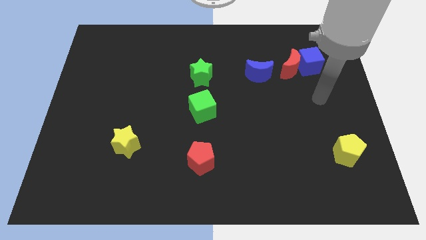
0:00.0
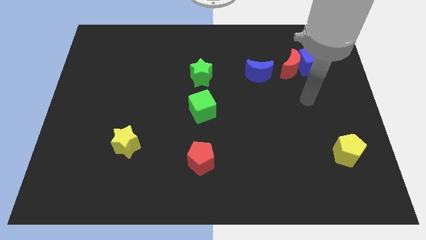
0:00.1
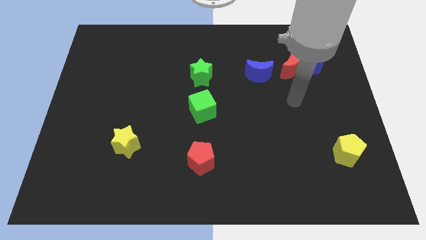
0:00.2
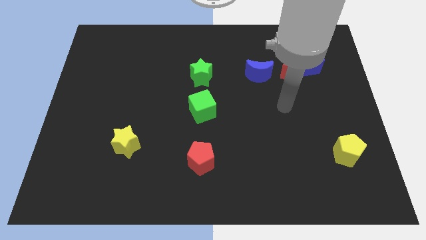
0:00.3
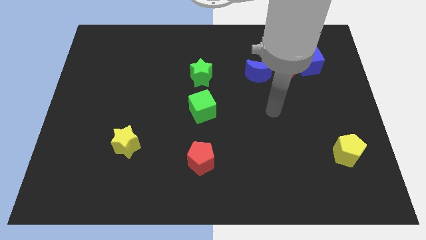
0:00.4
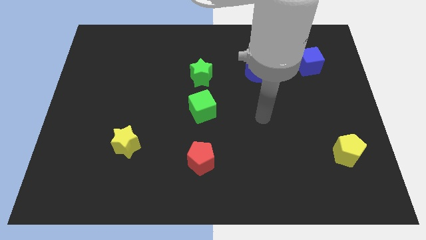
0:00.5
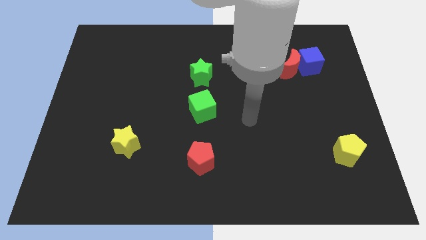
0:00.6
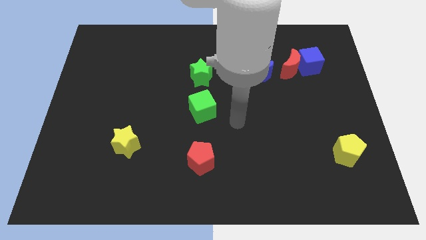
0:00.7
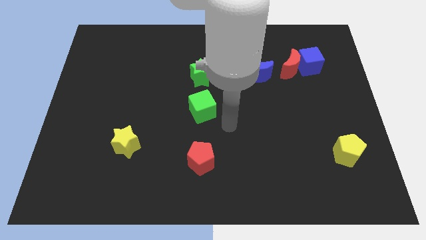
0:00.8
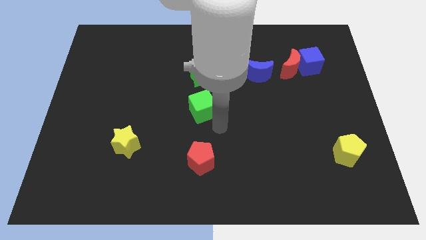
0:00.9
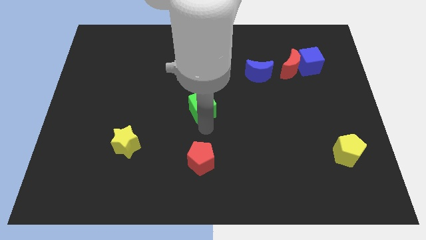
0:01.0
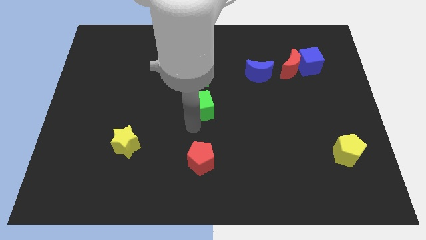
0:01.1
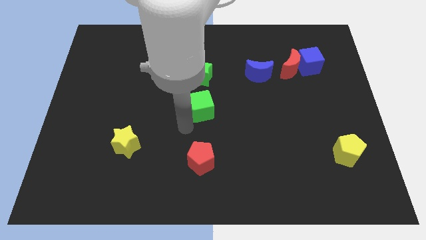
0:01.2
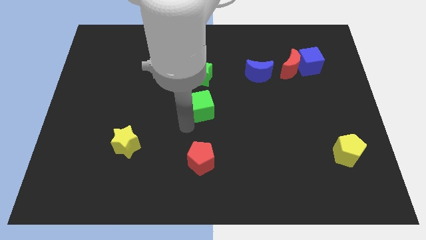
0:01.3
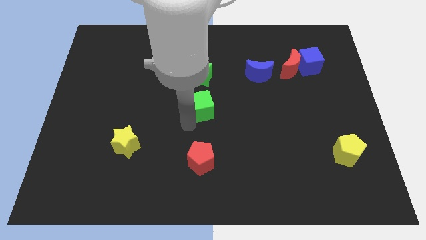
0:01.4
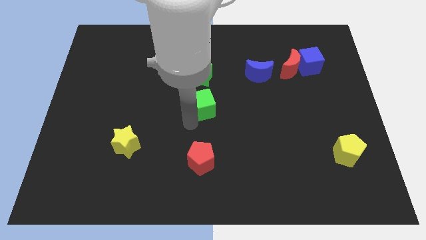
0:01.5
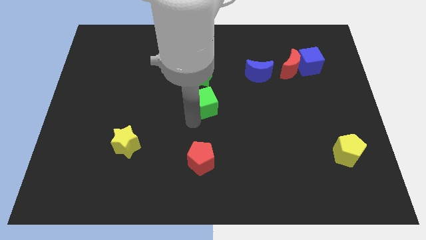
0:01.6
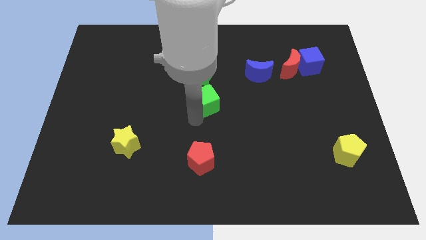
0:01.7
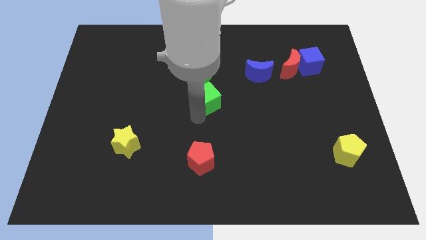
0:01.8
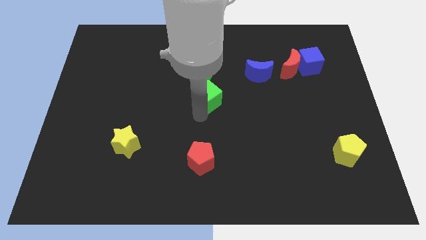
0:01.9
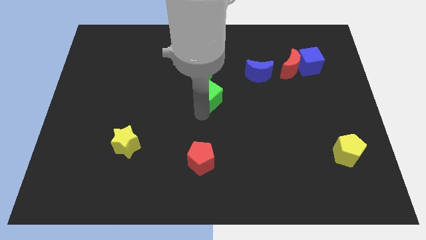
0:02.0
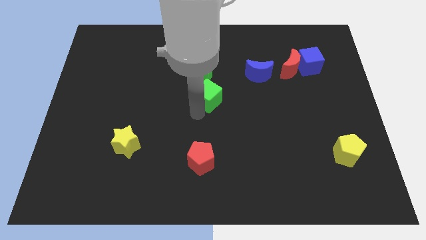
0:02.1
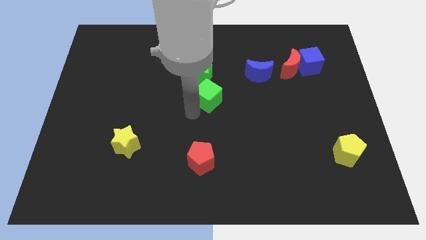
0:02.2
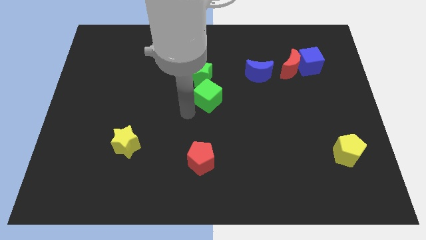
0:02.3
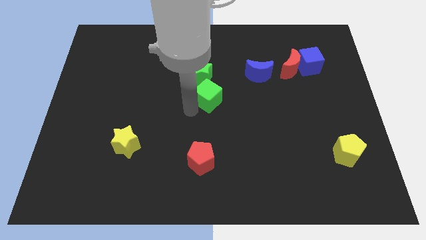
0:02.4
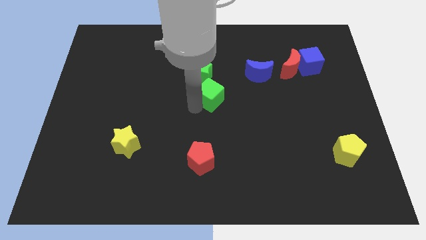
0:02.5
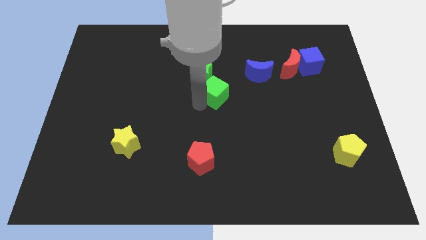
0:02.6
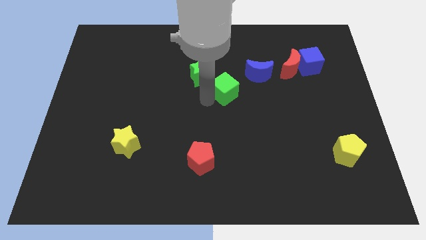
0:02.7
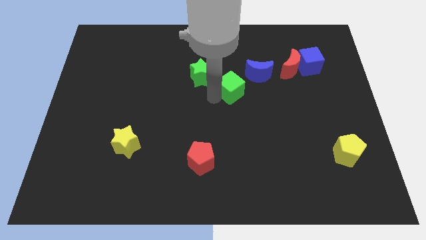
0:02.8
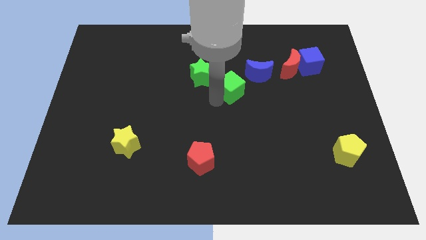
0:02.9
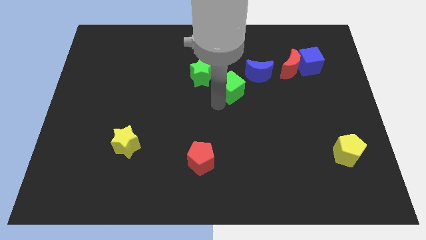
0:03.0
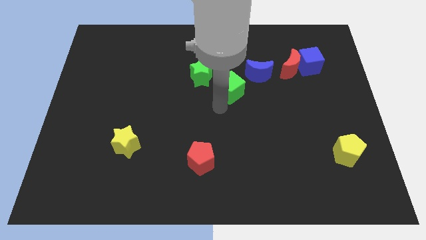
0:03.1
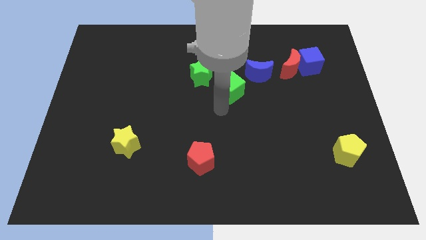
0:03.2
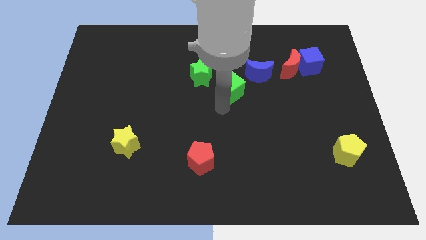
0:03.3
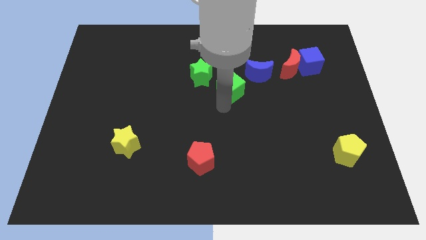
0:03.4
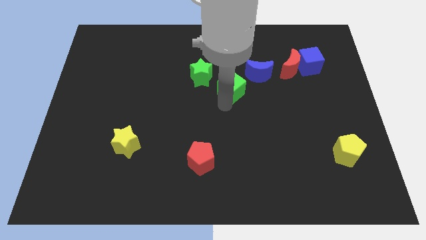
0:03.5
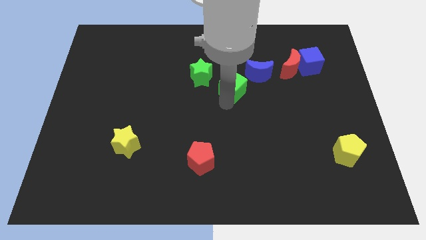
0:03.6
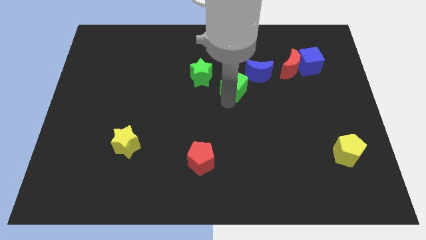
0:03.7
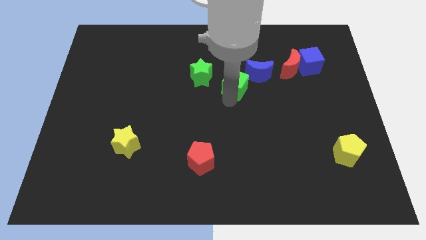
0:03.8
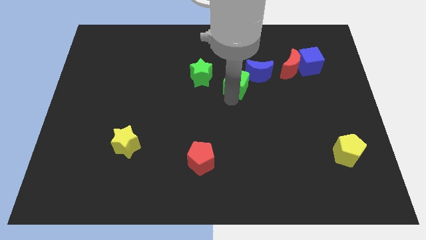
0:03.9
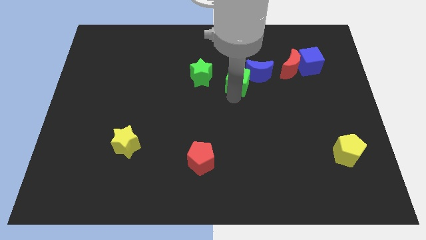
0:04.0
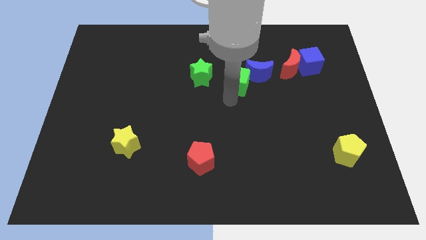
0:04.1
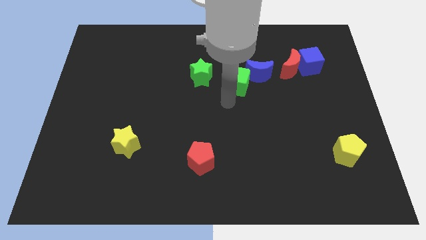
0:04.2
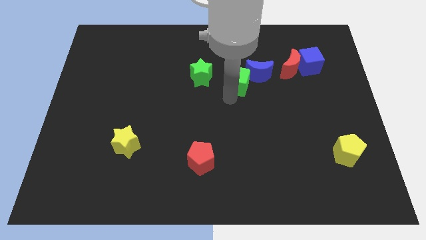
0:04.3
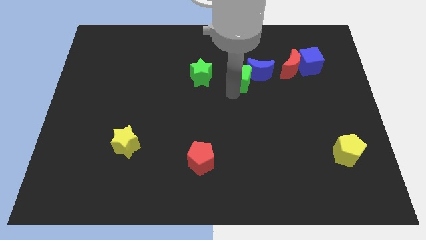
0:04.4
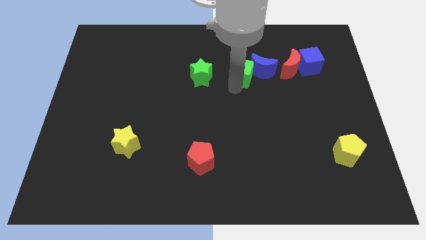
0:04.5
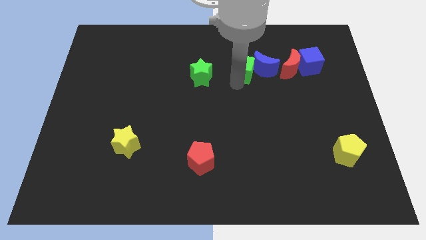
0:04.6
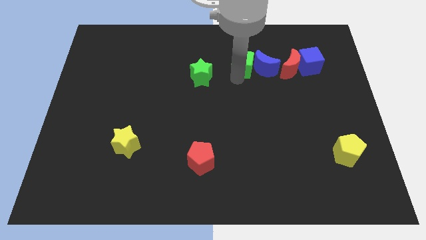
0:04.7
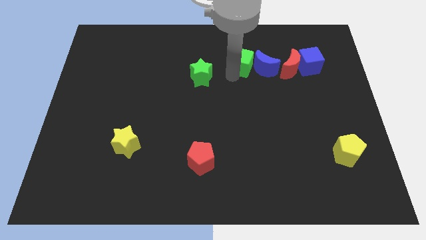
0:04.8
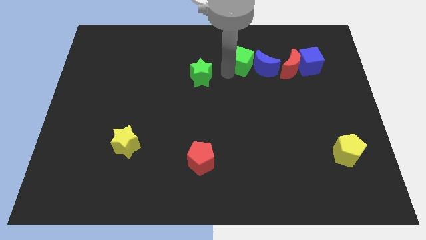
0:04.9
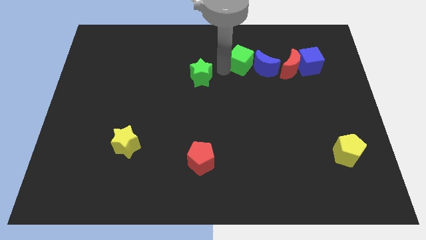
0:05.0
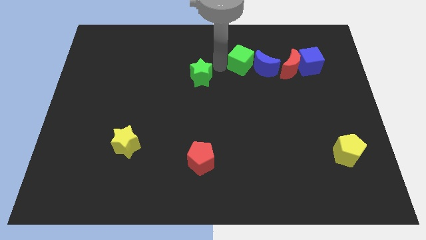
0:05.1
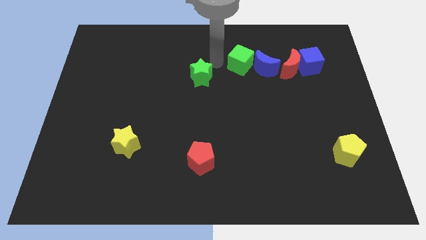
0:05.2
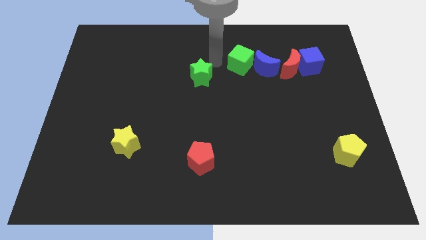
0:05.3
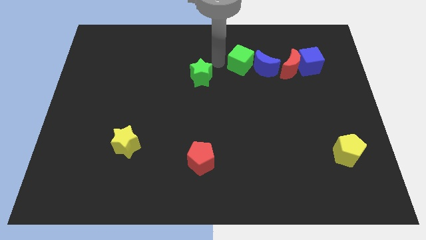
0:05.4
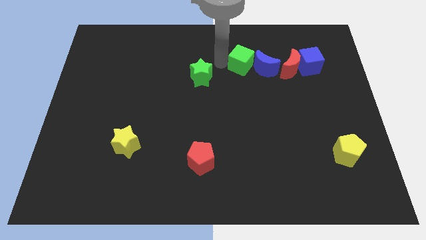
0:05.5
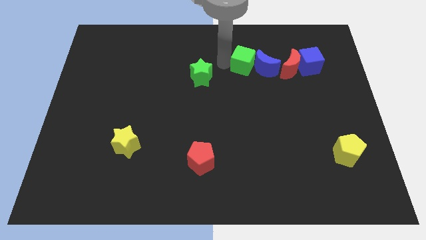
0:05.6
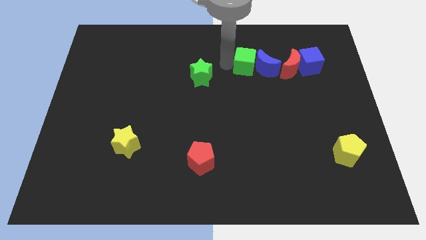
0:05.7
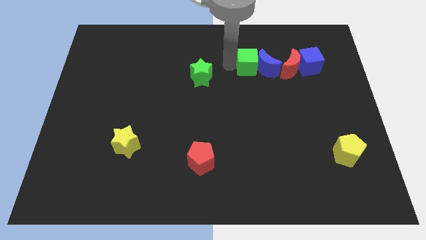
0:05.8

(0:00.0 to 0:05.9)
move the green cube just left of the blue cube
